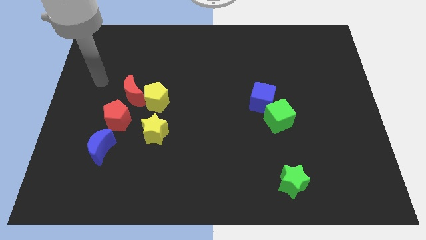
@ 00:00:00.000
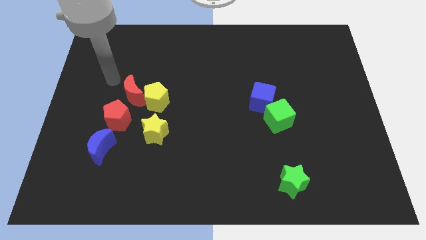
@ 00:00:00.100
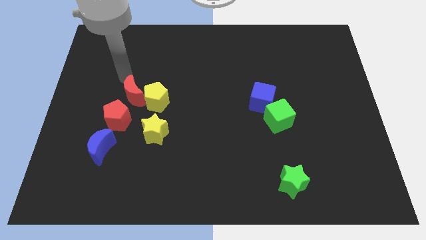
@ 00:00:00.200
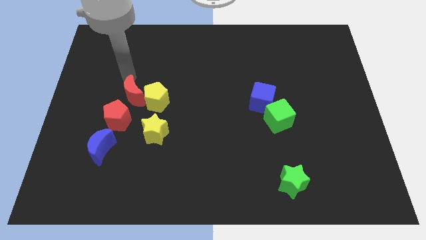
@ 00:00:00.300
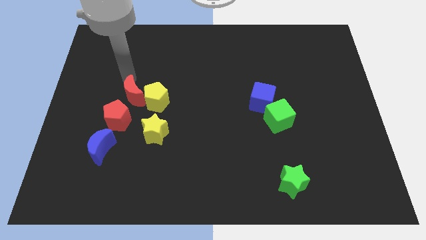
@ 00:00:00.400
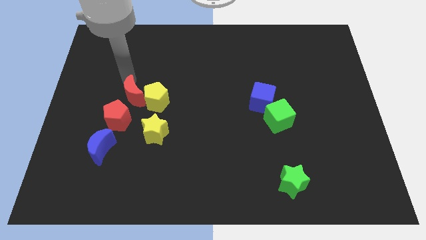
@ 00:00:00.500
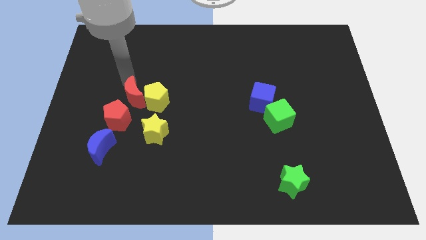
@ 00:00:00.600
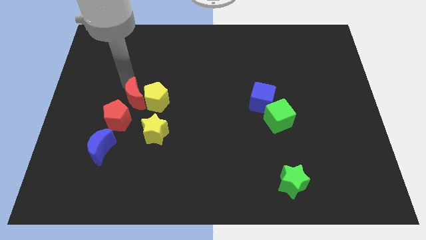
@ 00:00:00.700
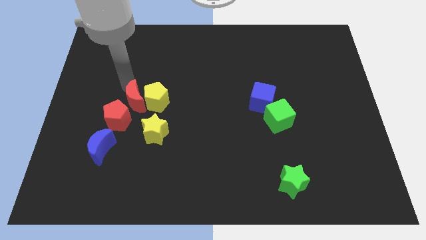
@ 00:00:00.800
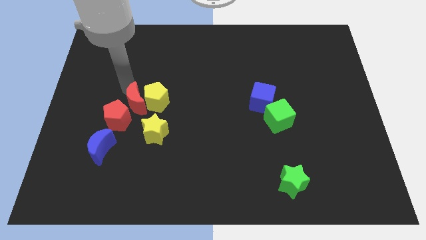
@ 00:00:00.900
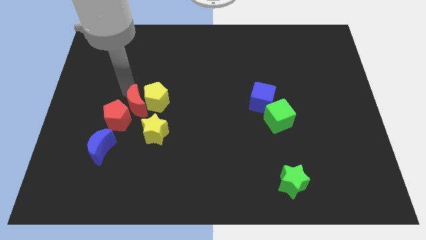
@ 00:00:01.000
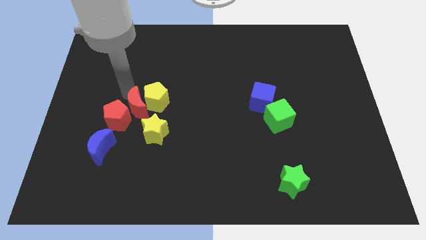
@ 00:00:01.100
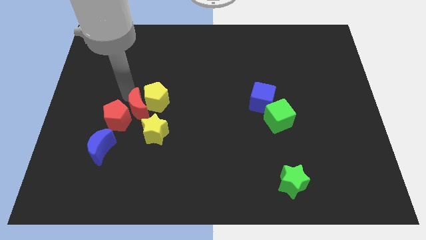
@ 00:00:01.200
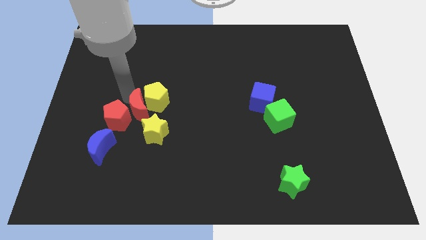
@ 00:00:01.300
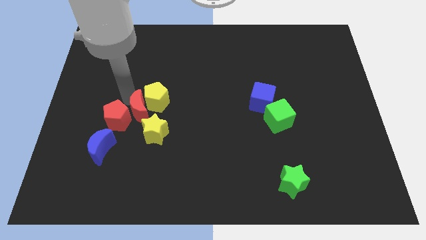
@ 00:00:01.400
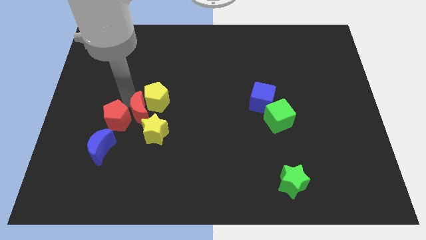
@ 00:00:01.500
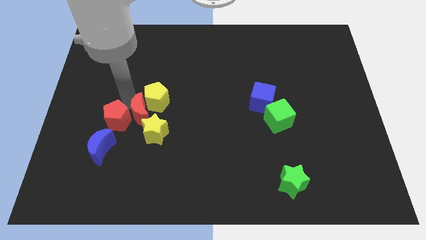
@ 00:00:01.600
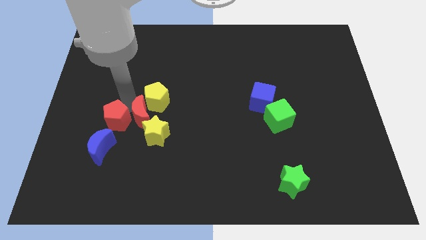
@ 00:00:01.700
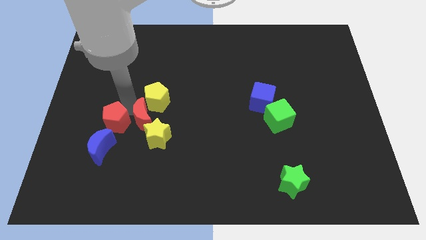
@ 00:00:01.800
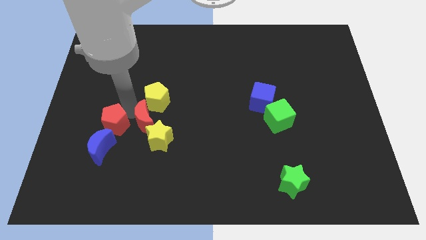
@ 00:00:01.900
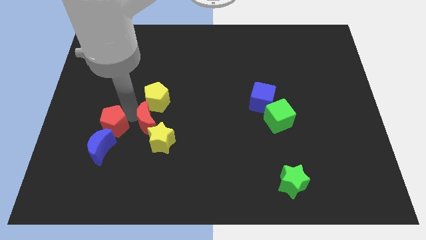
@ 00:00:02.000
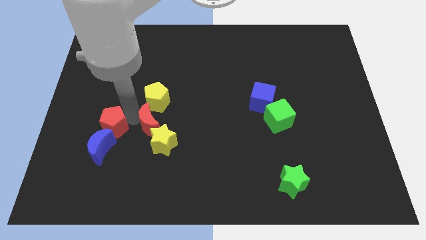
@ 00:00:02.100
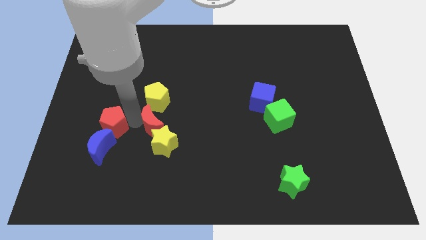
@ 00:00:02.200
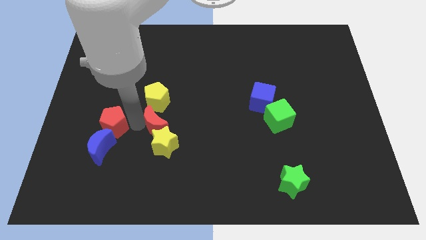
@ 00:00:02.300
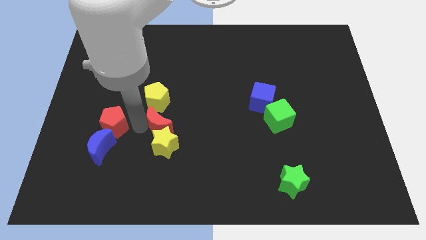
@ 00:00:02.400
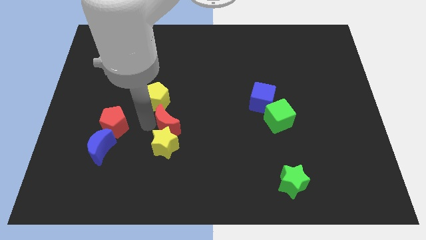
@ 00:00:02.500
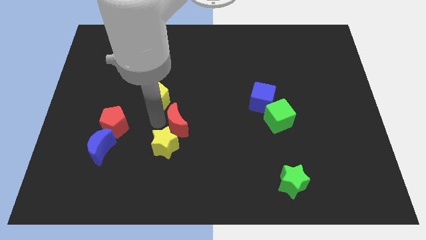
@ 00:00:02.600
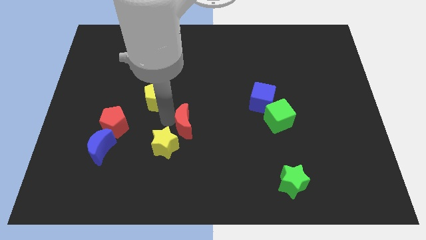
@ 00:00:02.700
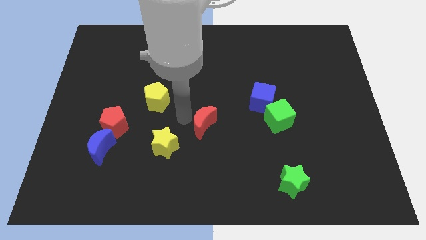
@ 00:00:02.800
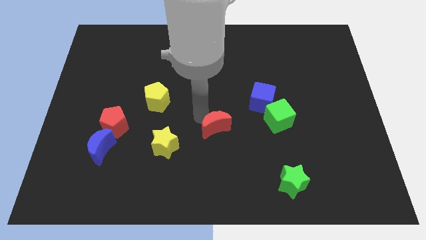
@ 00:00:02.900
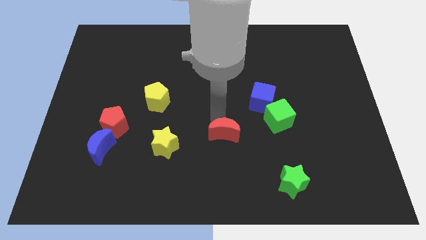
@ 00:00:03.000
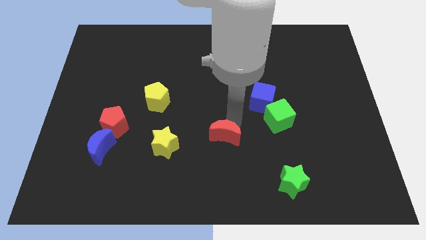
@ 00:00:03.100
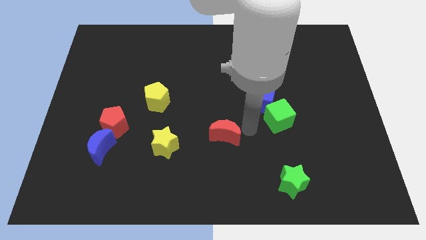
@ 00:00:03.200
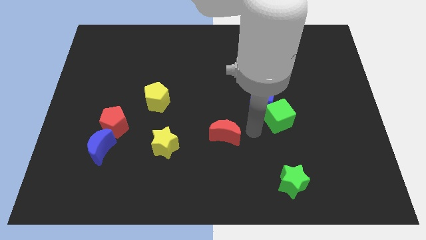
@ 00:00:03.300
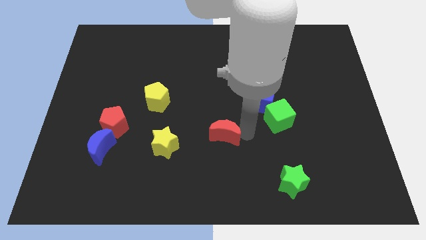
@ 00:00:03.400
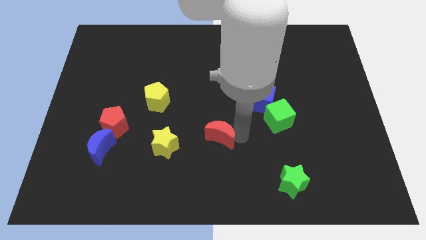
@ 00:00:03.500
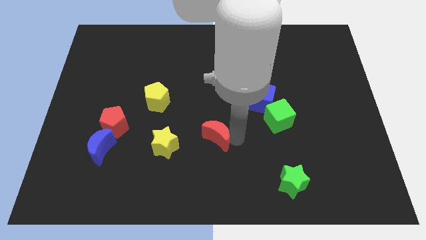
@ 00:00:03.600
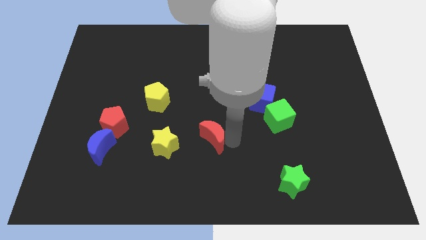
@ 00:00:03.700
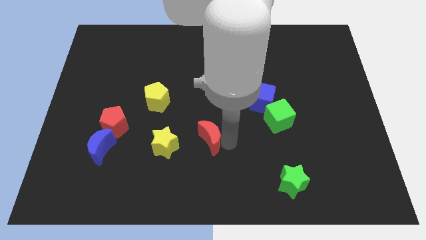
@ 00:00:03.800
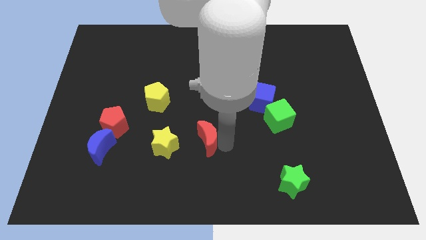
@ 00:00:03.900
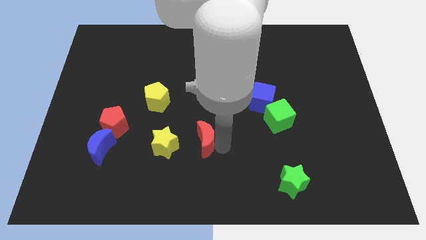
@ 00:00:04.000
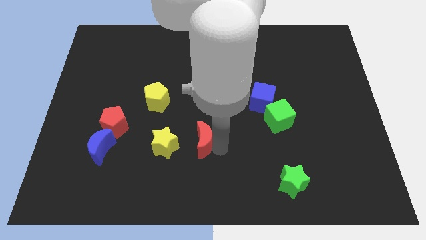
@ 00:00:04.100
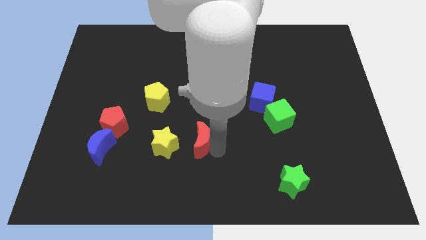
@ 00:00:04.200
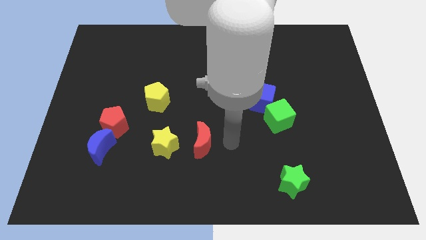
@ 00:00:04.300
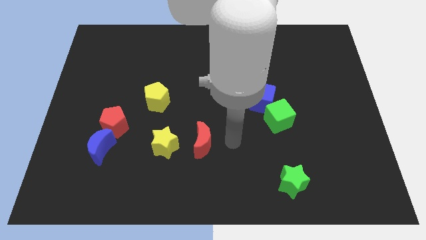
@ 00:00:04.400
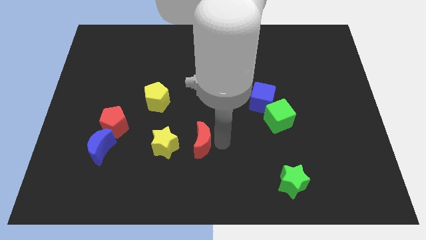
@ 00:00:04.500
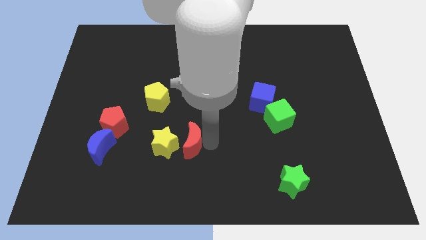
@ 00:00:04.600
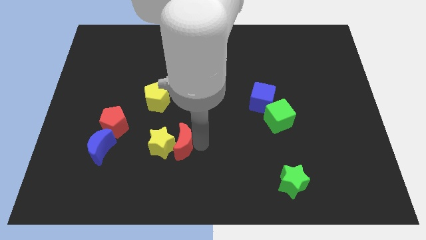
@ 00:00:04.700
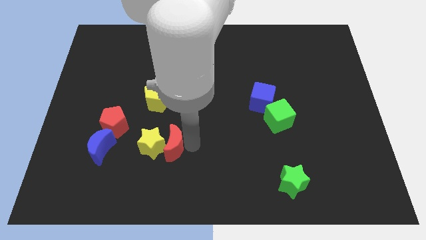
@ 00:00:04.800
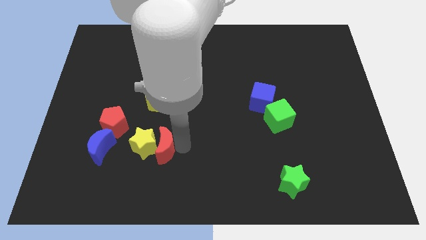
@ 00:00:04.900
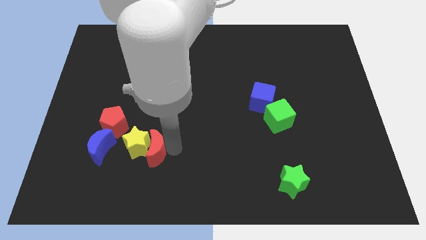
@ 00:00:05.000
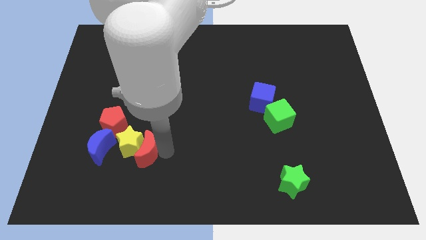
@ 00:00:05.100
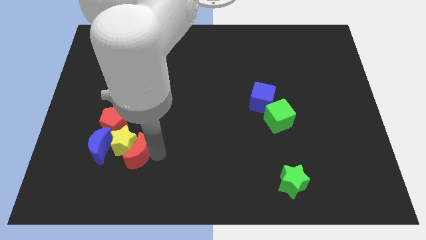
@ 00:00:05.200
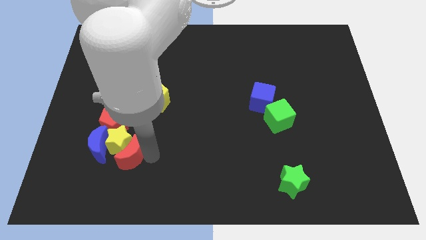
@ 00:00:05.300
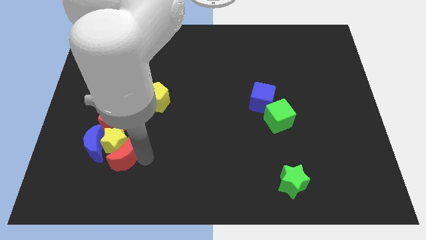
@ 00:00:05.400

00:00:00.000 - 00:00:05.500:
push the red moon to the bottom of the red pentagon

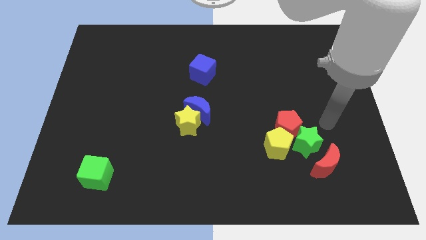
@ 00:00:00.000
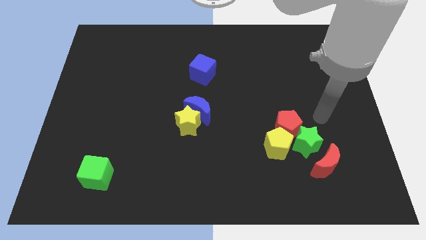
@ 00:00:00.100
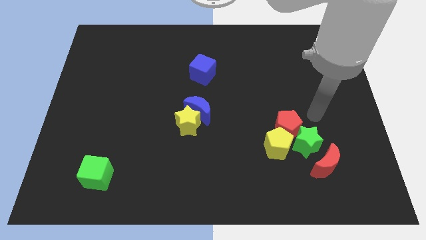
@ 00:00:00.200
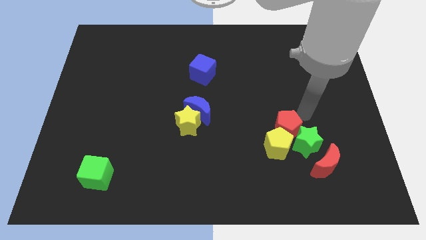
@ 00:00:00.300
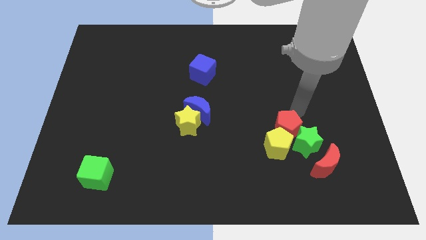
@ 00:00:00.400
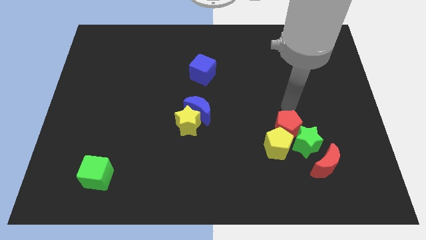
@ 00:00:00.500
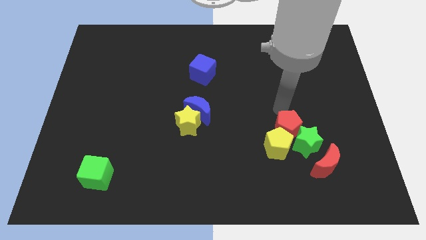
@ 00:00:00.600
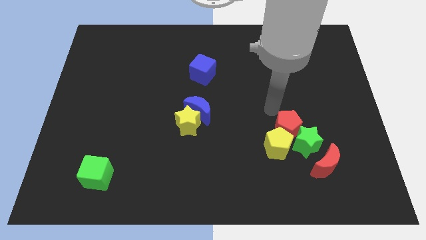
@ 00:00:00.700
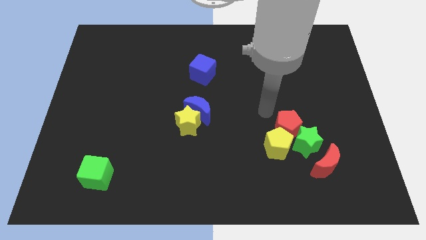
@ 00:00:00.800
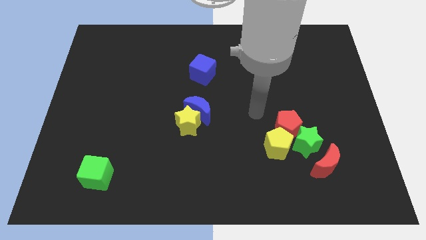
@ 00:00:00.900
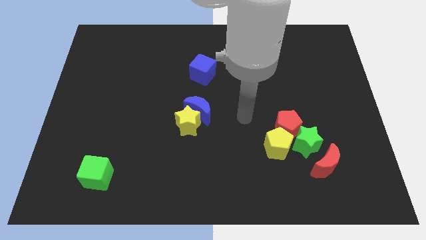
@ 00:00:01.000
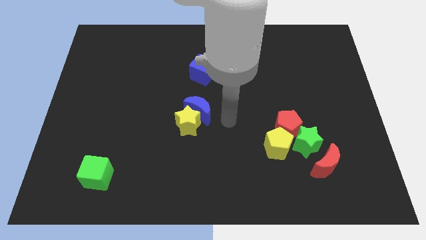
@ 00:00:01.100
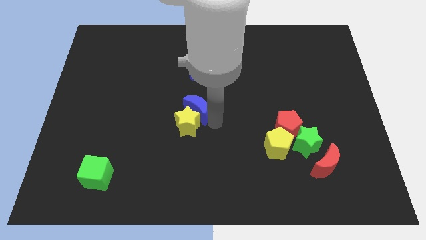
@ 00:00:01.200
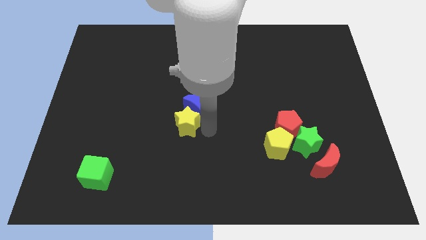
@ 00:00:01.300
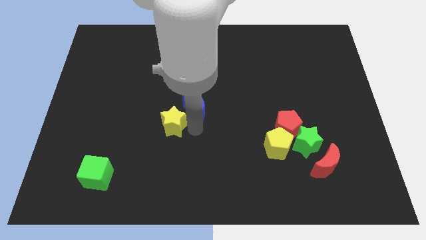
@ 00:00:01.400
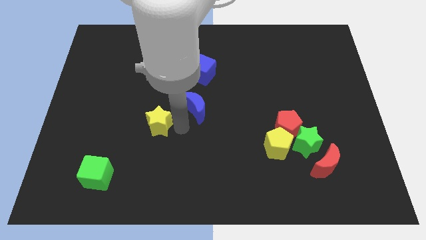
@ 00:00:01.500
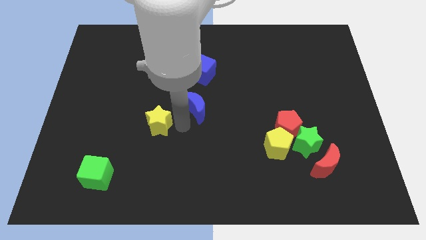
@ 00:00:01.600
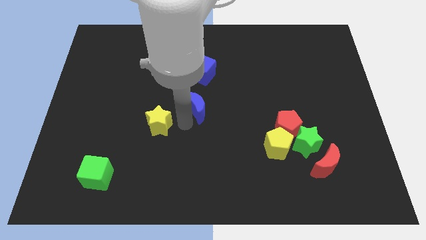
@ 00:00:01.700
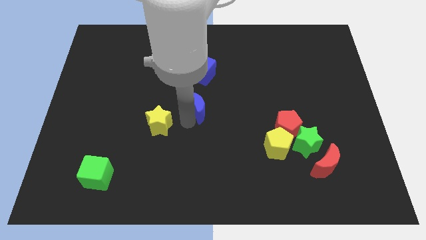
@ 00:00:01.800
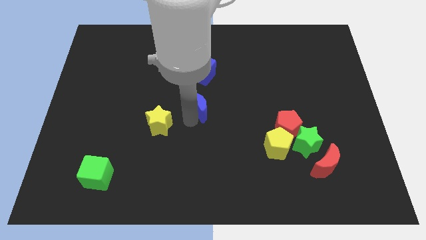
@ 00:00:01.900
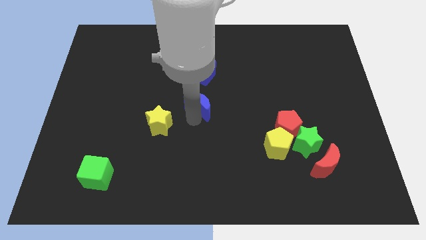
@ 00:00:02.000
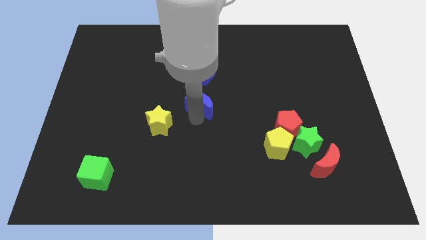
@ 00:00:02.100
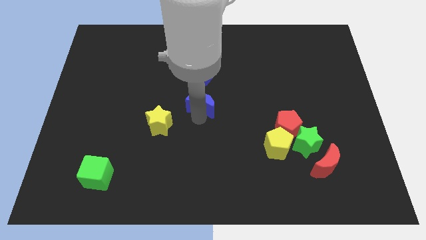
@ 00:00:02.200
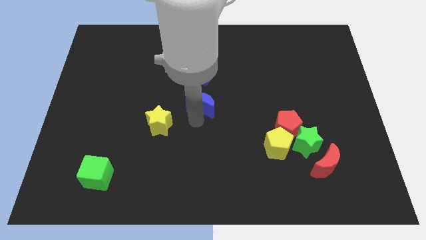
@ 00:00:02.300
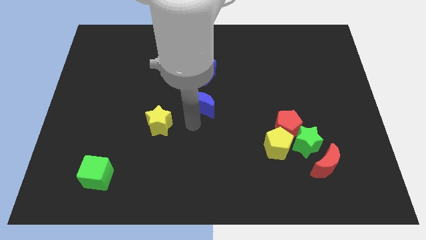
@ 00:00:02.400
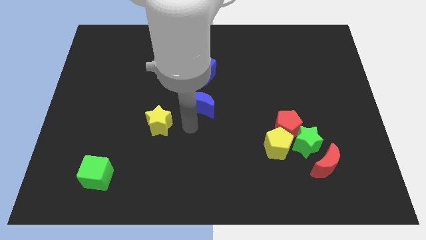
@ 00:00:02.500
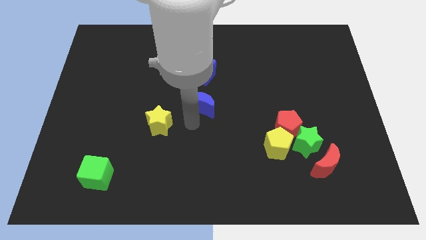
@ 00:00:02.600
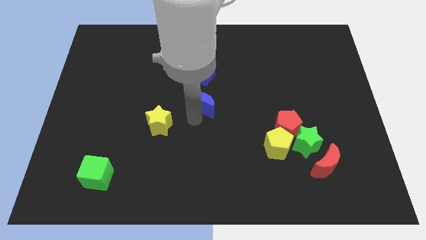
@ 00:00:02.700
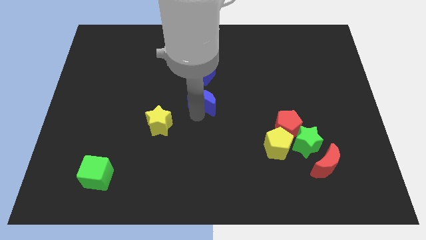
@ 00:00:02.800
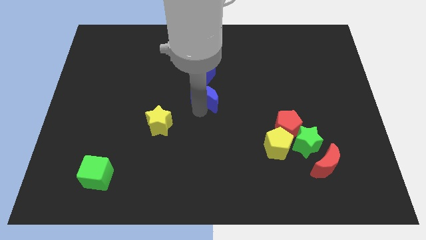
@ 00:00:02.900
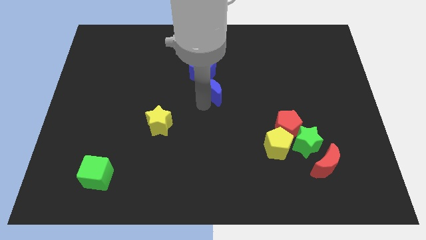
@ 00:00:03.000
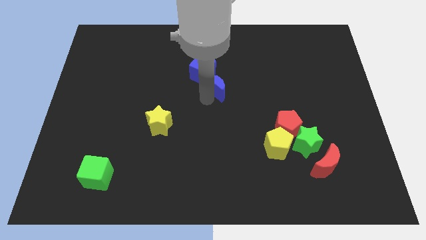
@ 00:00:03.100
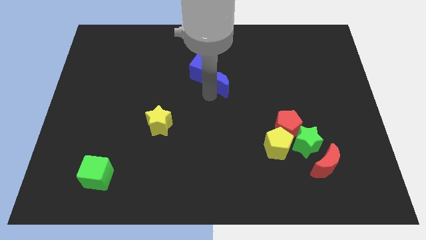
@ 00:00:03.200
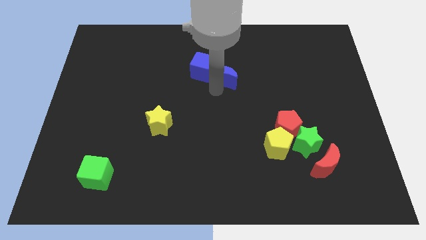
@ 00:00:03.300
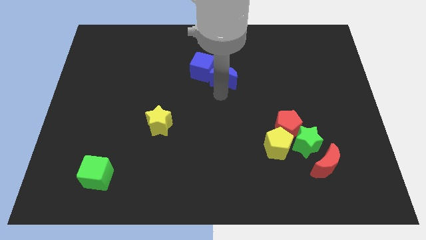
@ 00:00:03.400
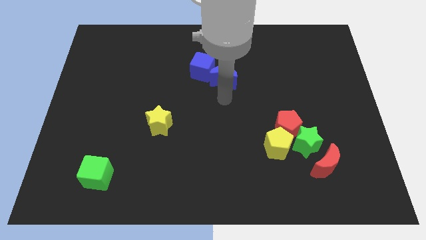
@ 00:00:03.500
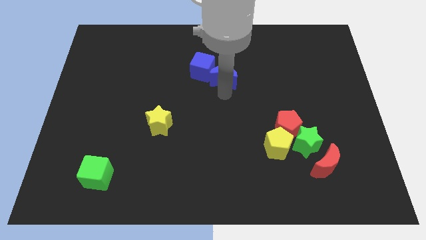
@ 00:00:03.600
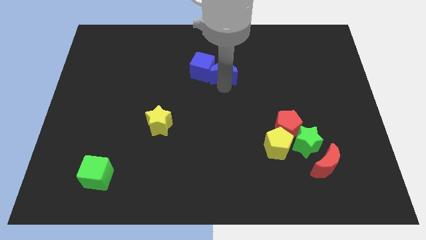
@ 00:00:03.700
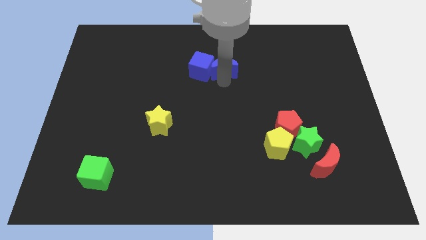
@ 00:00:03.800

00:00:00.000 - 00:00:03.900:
move the blue moon to the top right side of the blue cube
